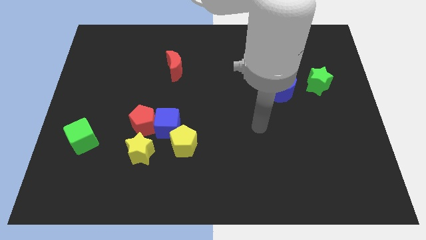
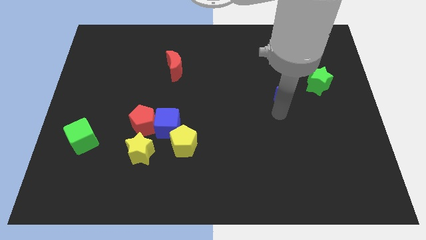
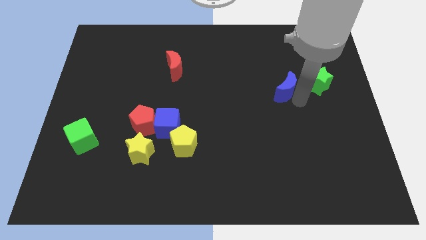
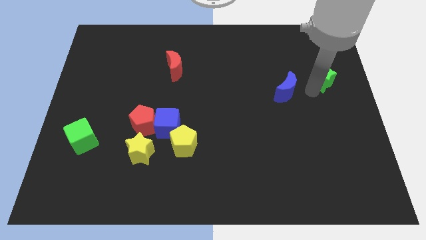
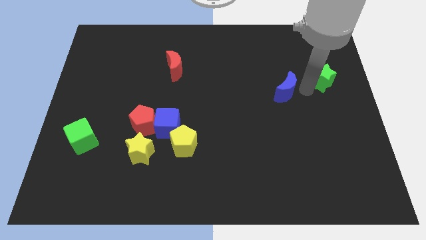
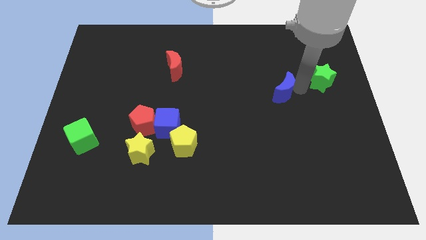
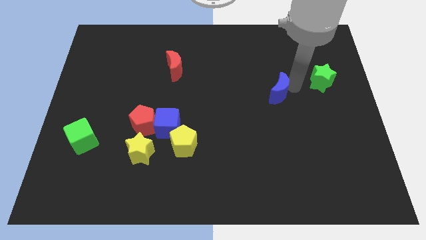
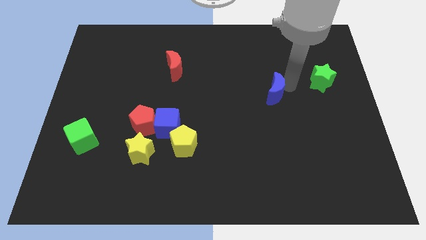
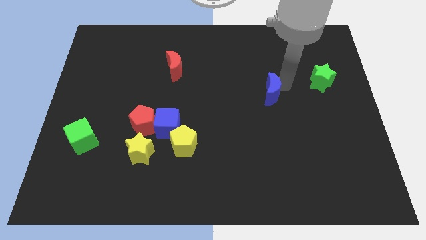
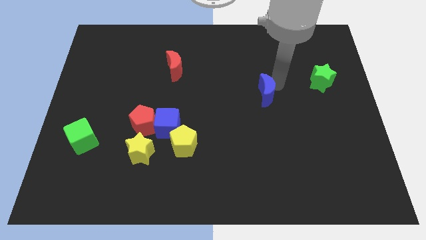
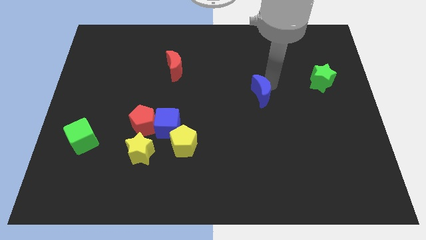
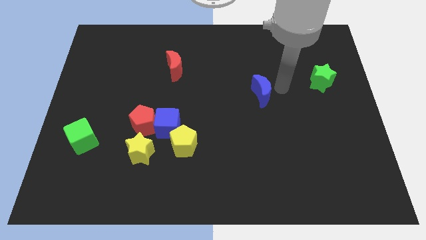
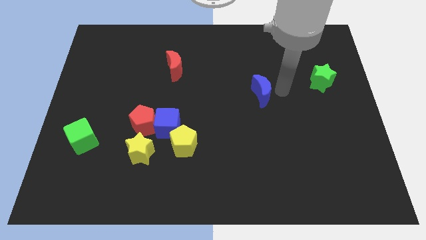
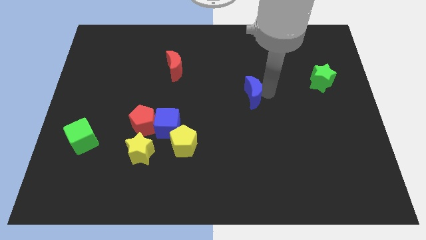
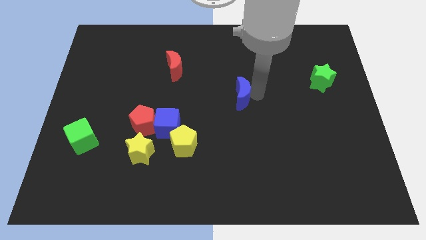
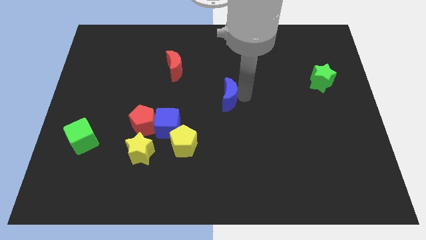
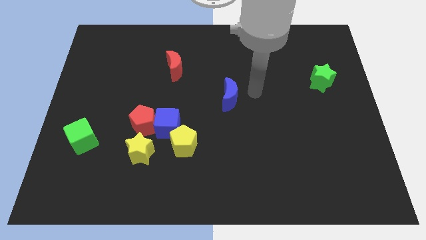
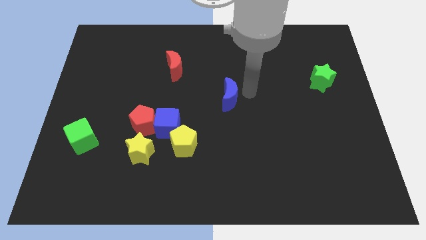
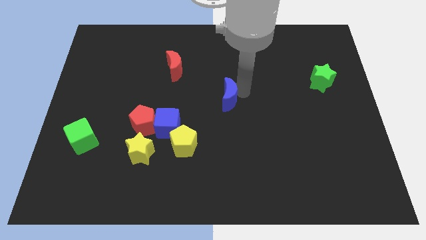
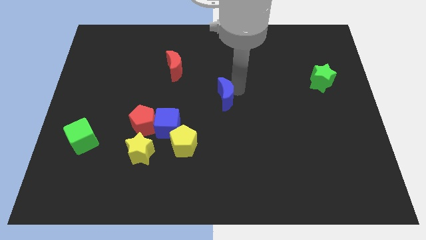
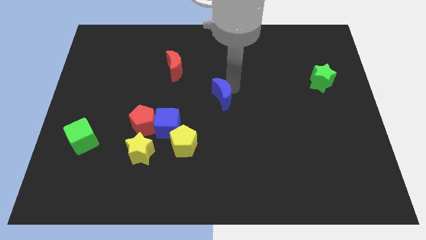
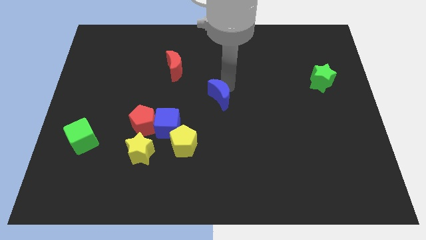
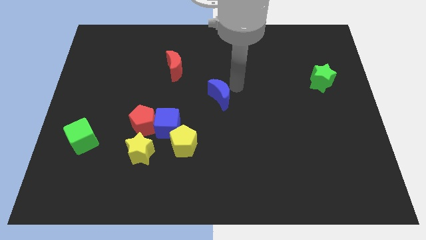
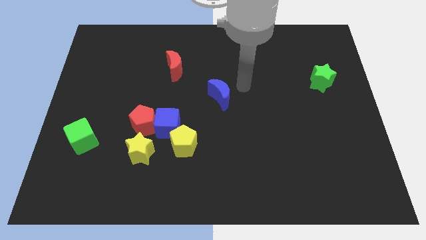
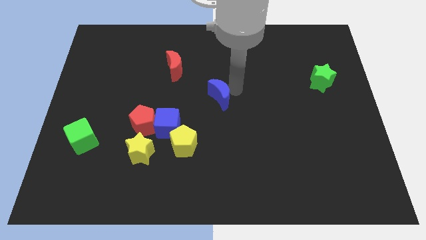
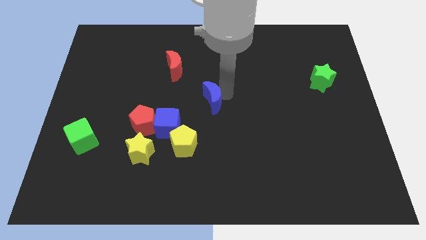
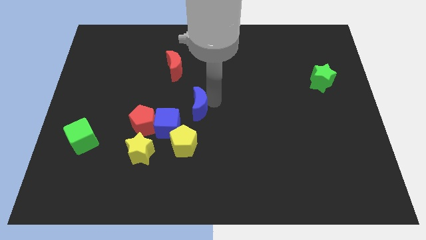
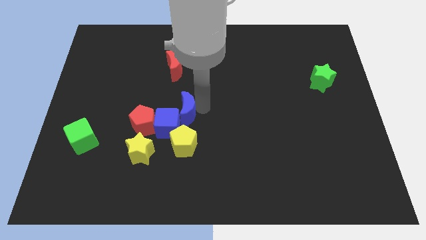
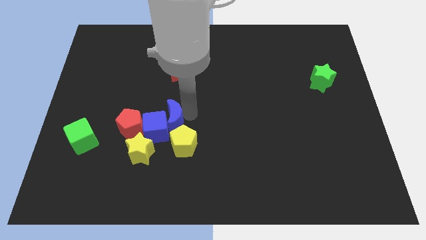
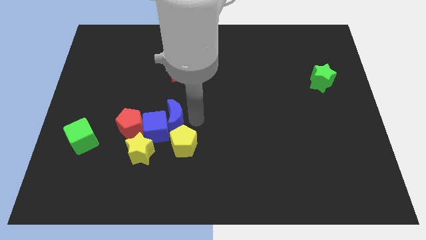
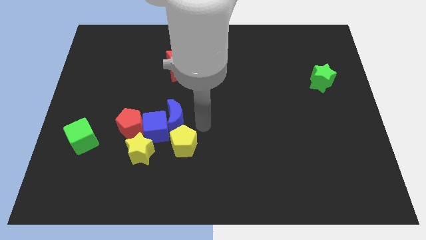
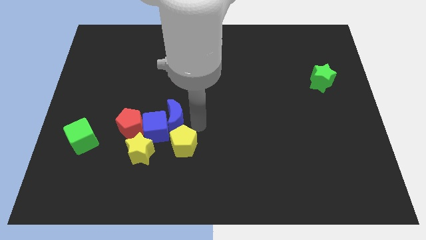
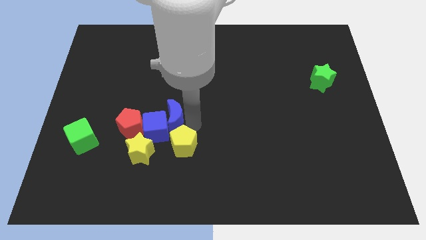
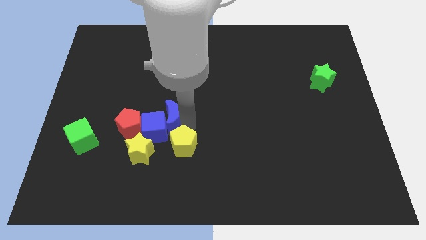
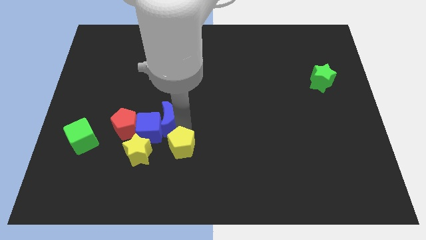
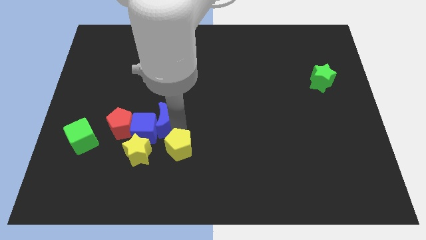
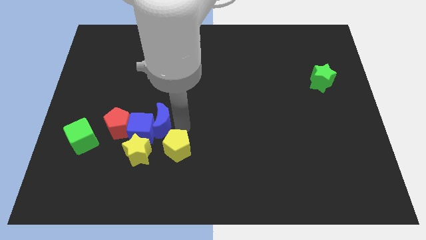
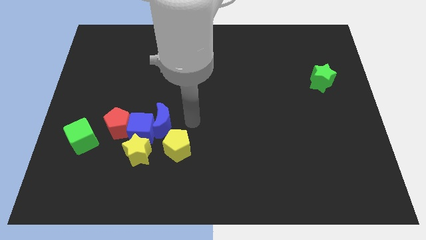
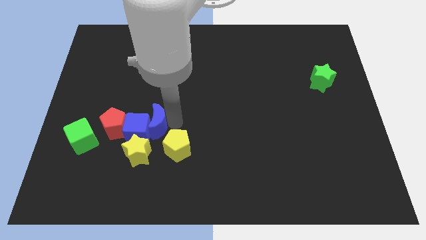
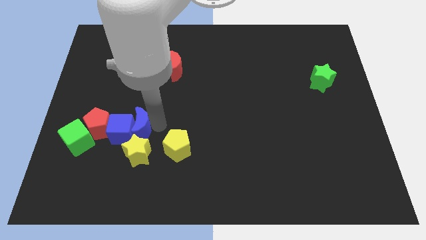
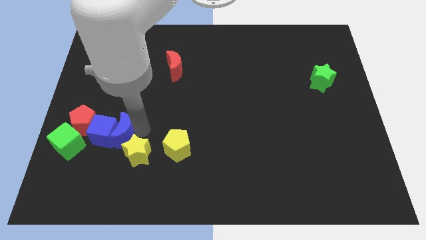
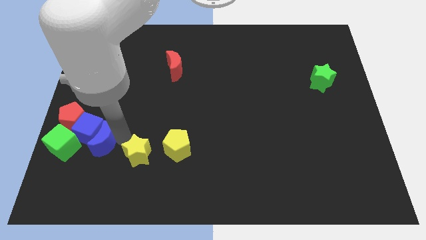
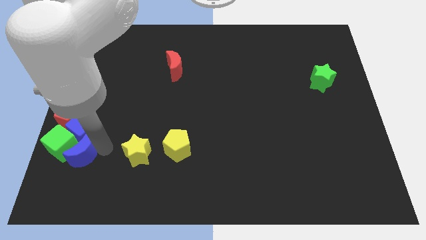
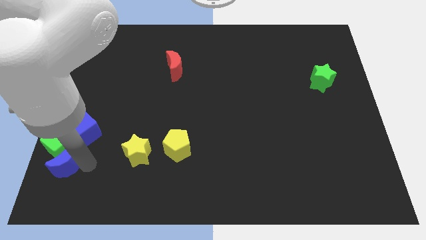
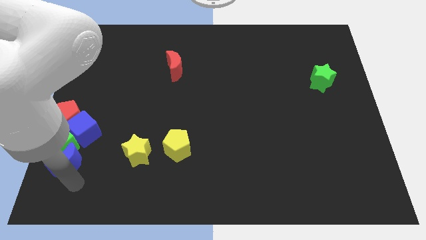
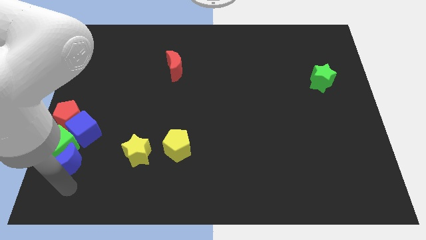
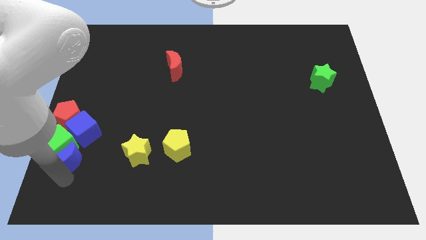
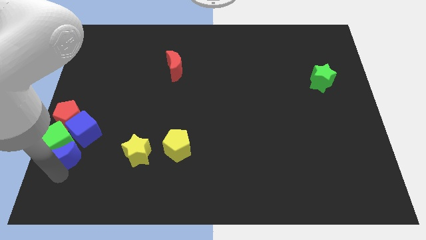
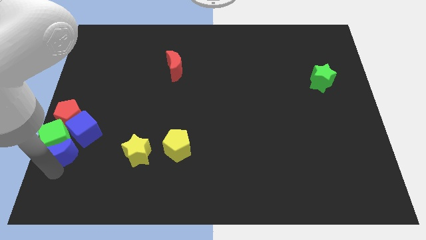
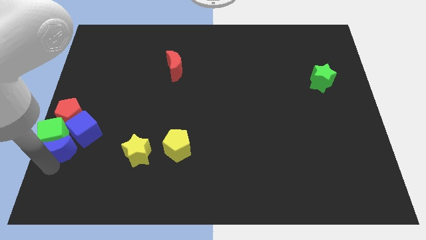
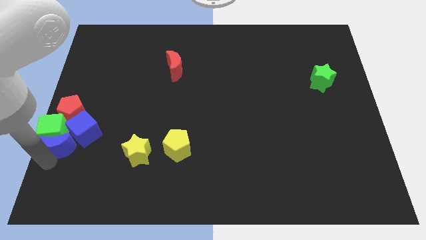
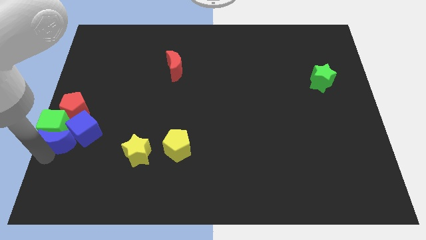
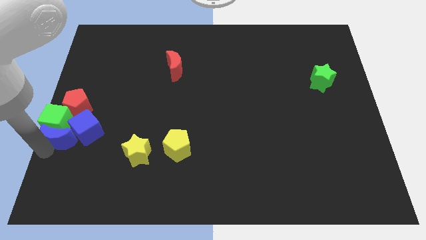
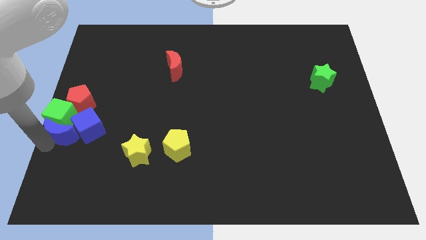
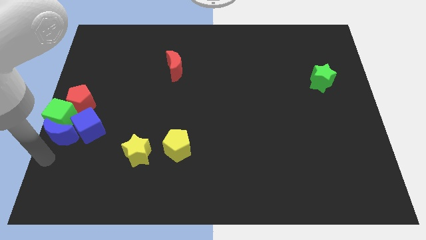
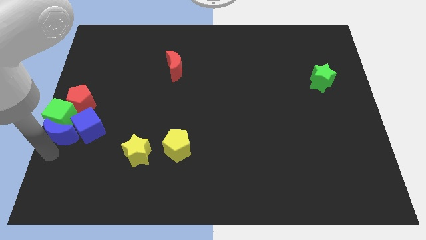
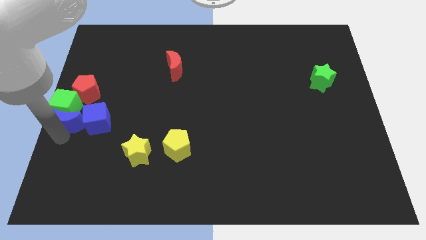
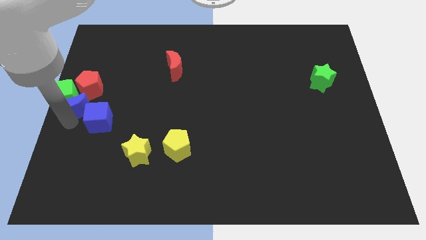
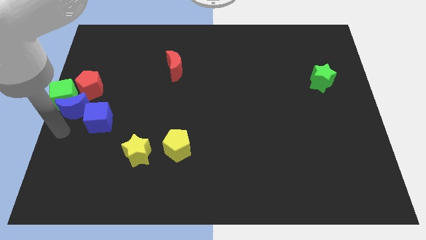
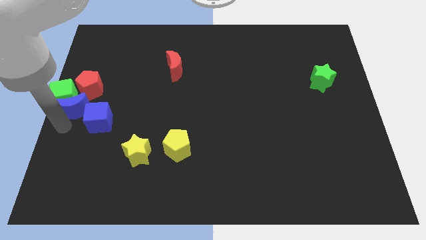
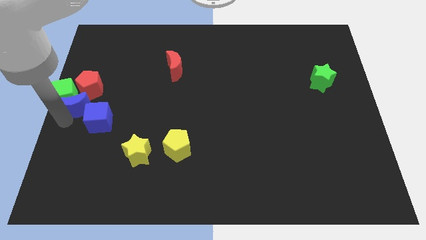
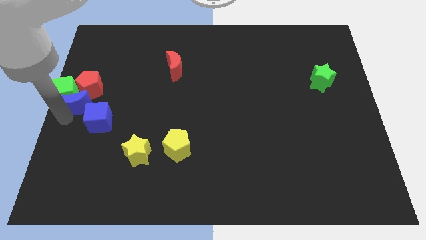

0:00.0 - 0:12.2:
put the blue moon to the red pentagon

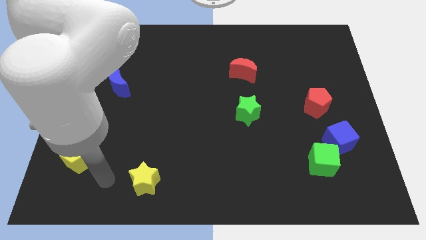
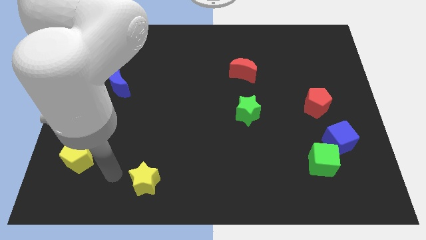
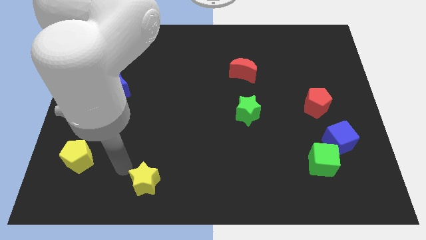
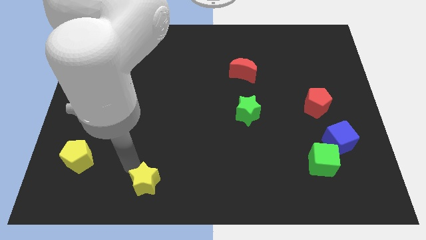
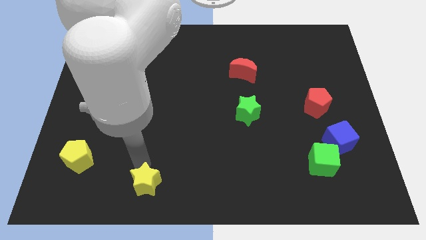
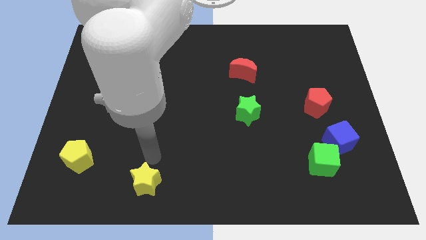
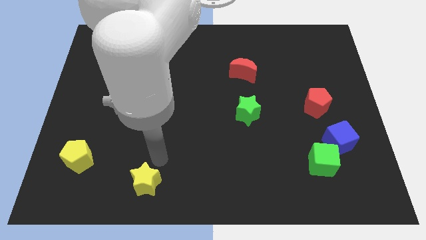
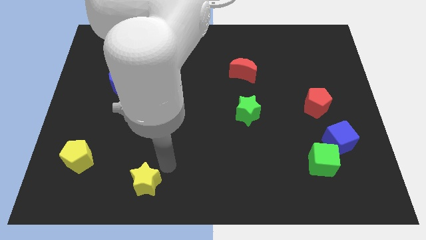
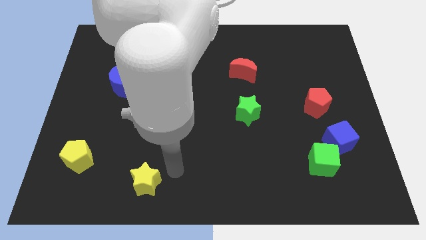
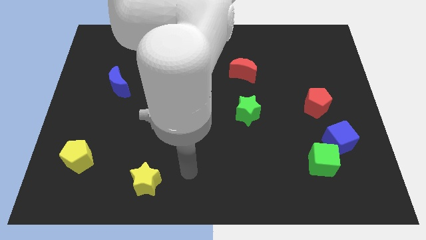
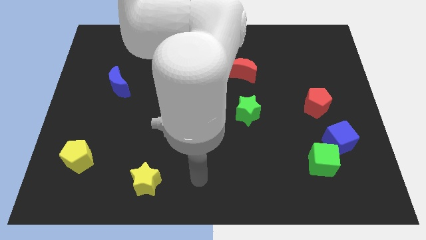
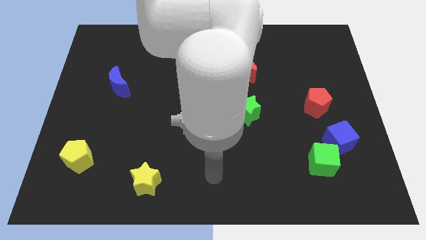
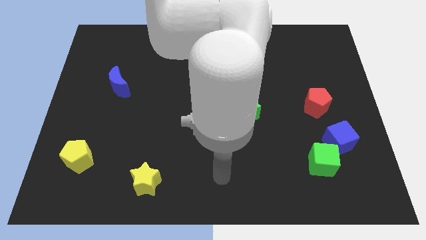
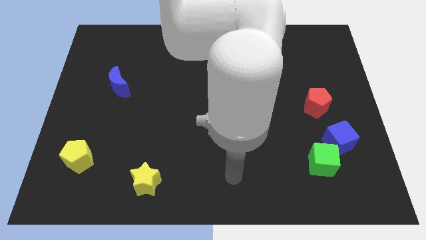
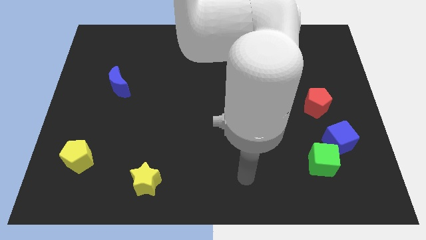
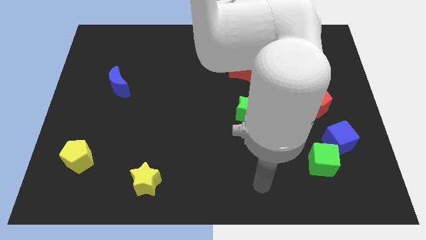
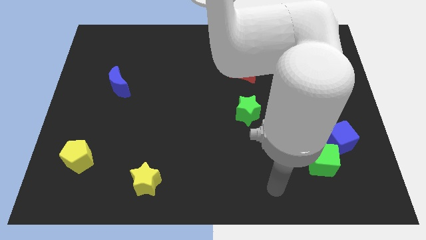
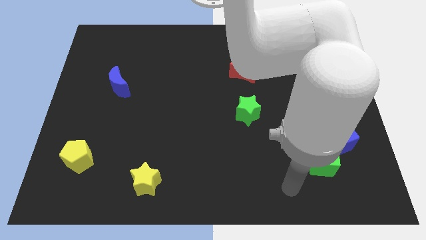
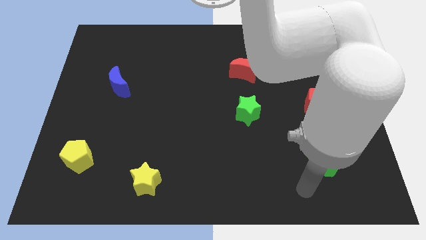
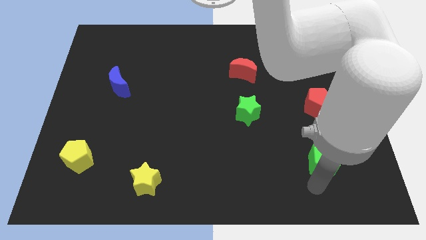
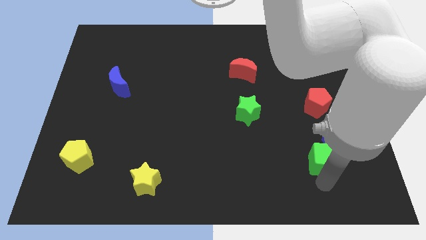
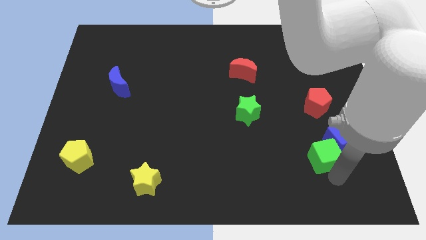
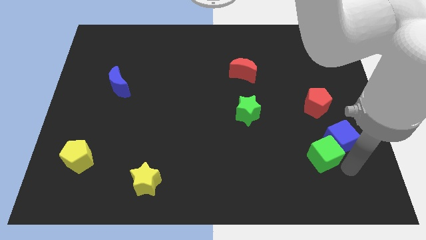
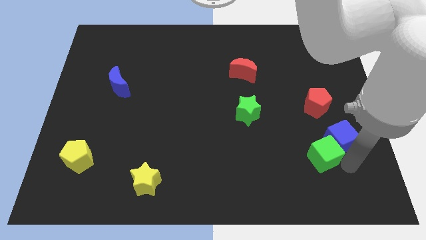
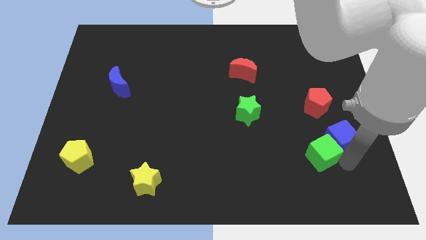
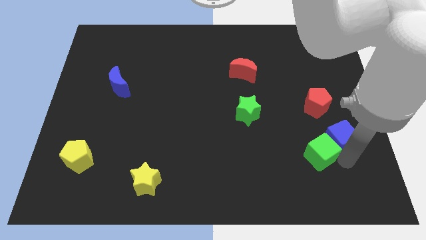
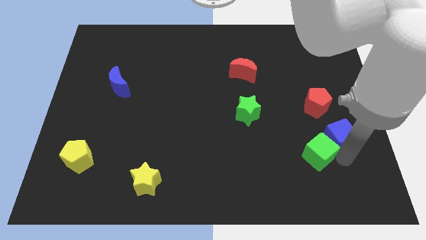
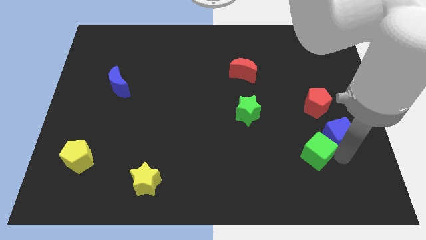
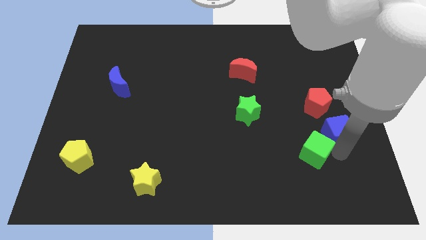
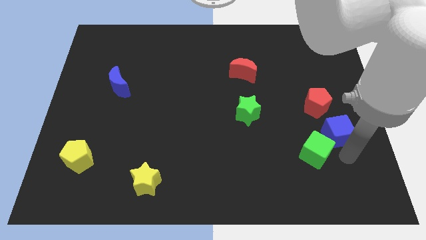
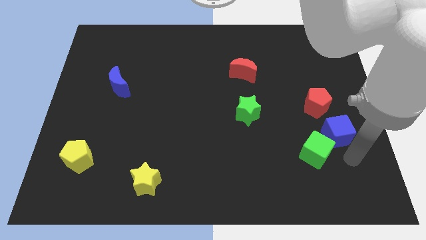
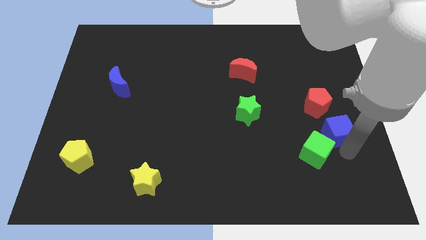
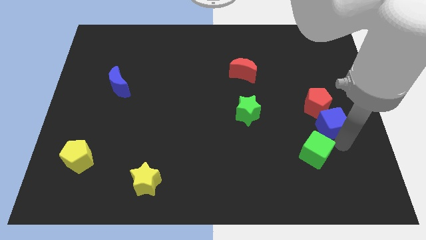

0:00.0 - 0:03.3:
put the blue cube close to the red pentagon
